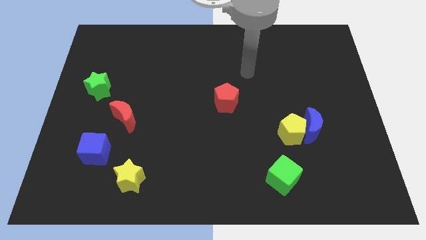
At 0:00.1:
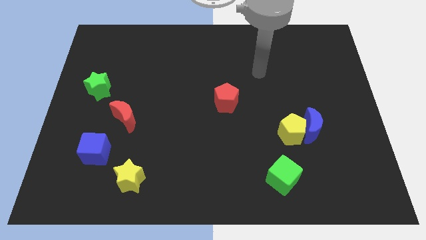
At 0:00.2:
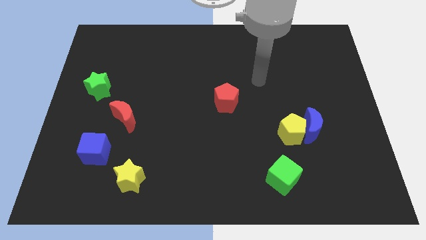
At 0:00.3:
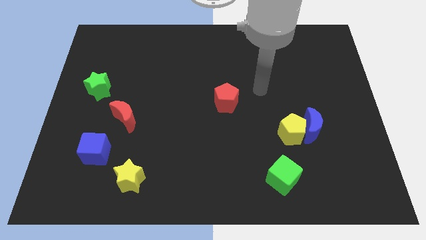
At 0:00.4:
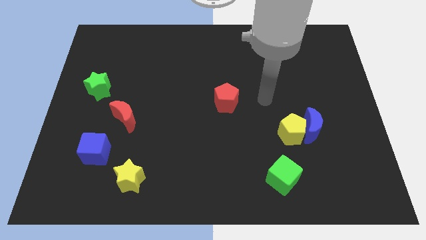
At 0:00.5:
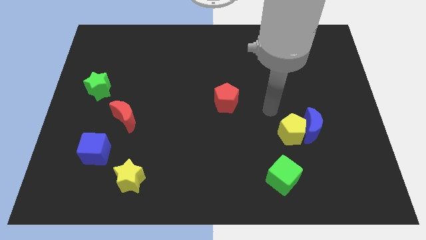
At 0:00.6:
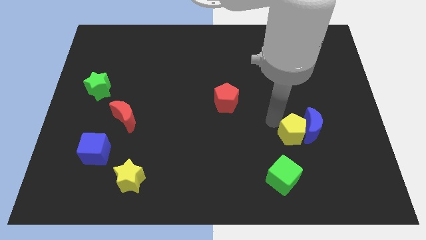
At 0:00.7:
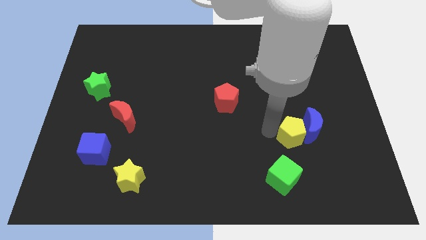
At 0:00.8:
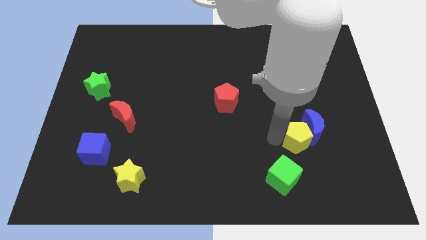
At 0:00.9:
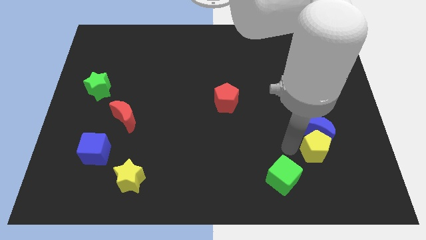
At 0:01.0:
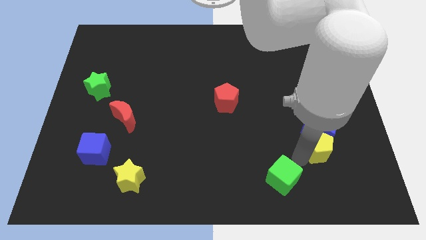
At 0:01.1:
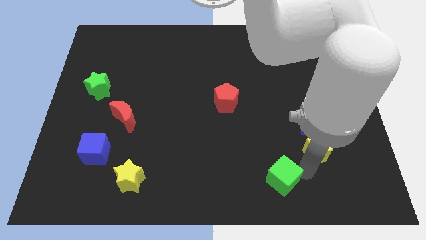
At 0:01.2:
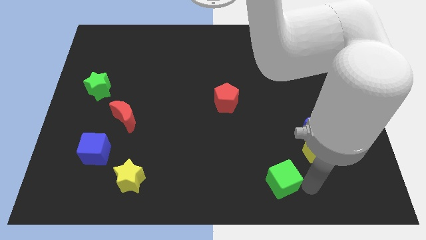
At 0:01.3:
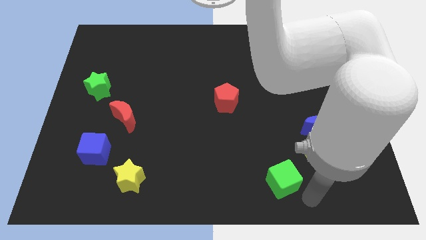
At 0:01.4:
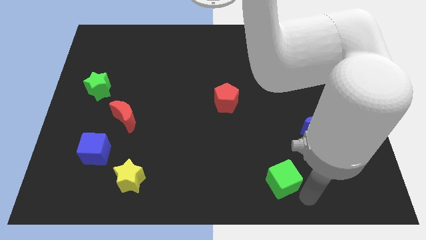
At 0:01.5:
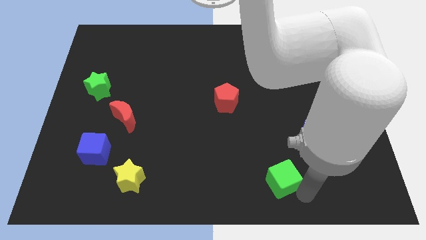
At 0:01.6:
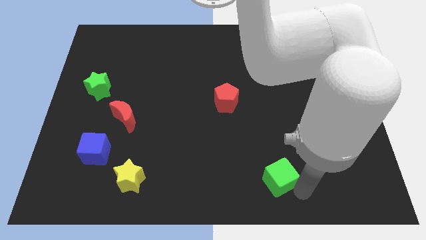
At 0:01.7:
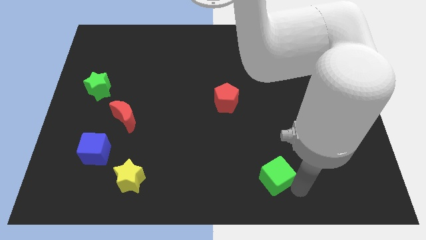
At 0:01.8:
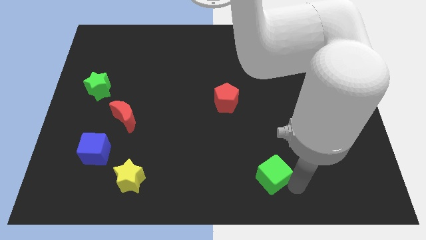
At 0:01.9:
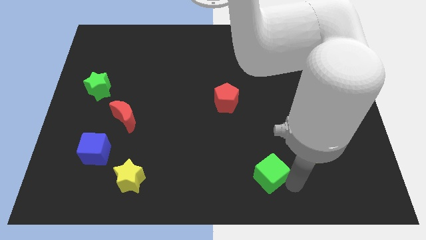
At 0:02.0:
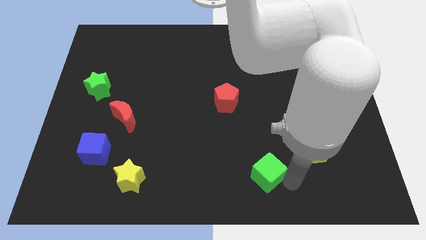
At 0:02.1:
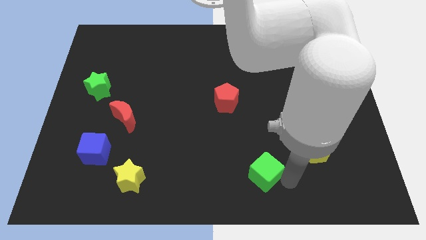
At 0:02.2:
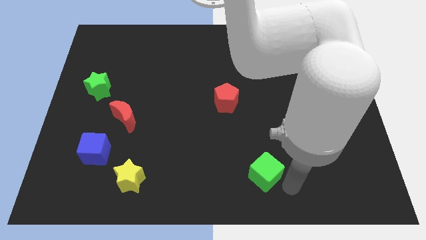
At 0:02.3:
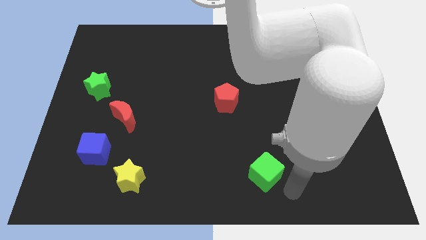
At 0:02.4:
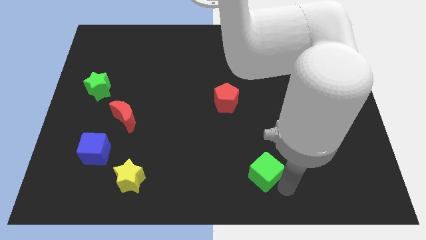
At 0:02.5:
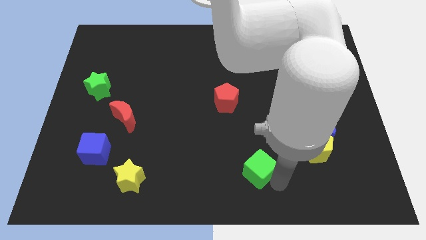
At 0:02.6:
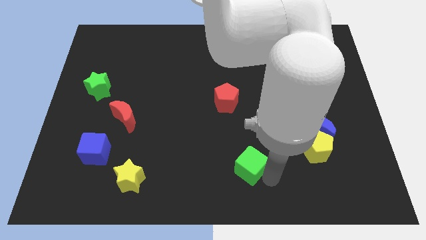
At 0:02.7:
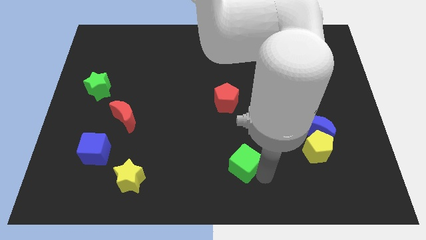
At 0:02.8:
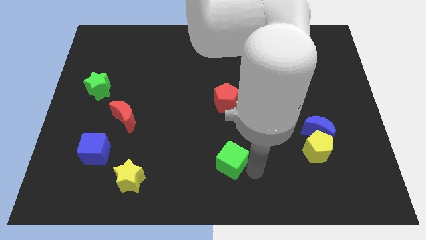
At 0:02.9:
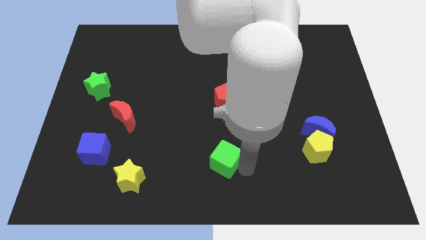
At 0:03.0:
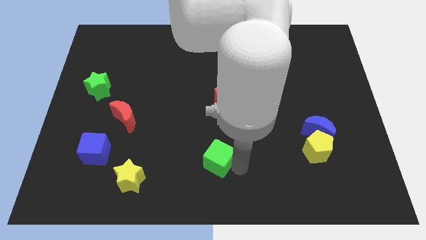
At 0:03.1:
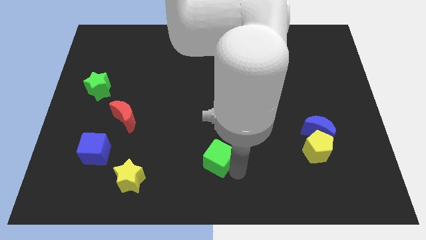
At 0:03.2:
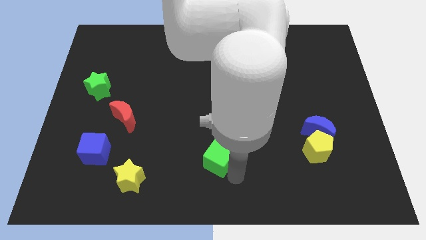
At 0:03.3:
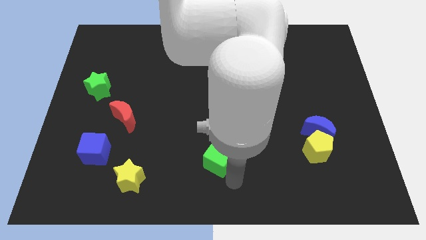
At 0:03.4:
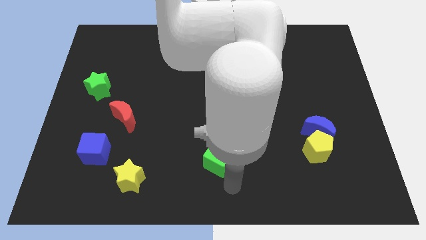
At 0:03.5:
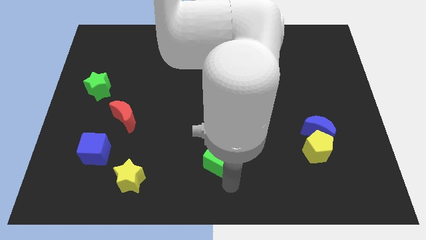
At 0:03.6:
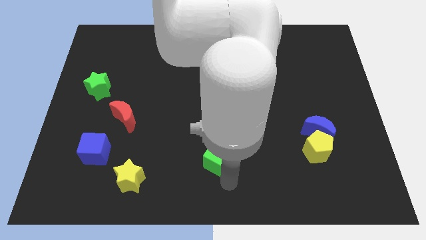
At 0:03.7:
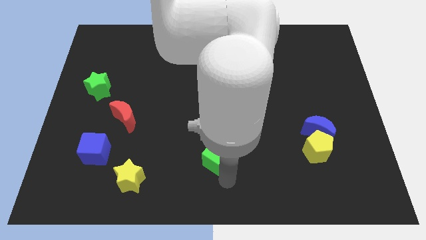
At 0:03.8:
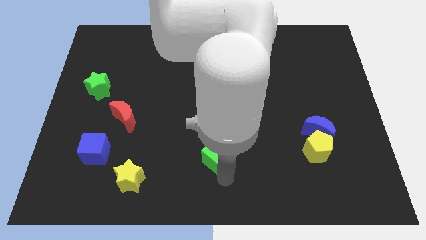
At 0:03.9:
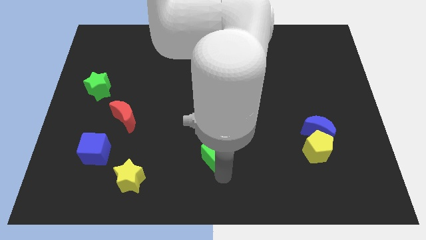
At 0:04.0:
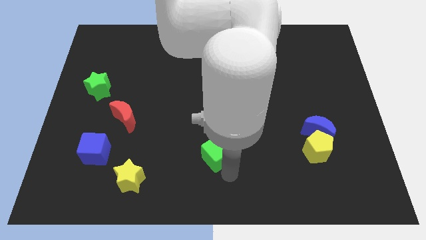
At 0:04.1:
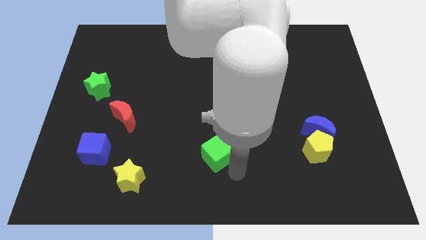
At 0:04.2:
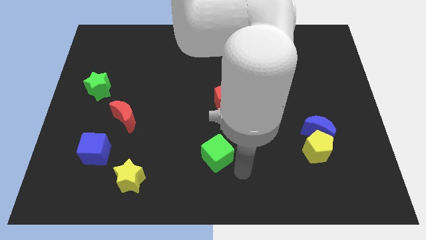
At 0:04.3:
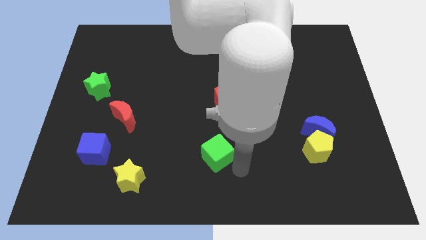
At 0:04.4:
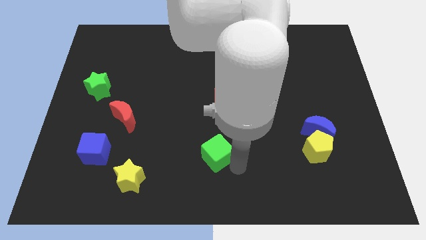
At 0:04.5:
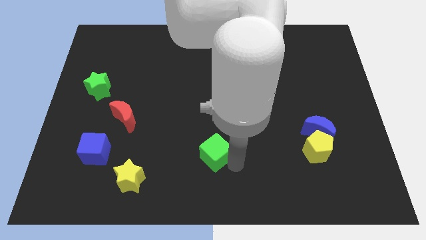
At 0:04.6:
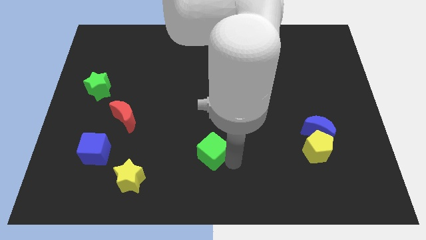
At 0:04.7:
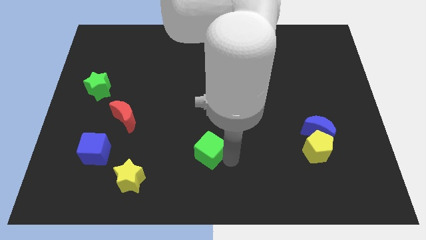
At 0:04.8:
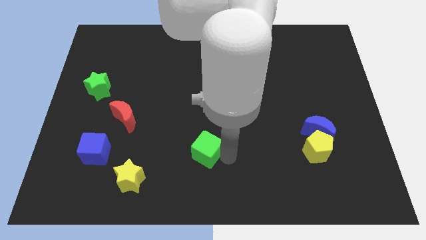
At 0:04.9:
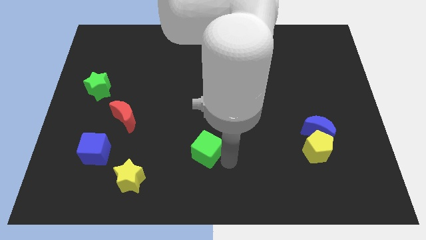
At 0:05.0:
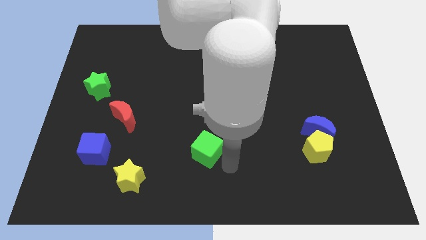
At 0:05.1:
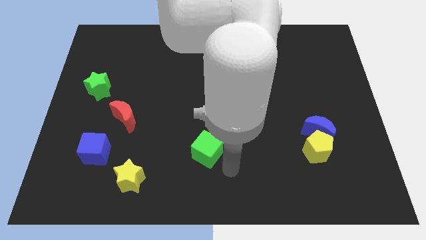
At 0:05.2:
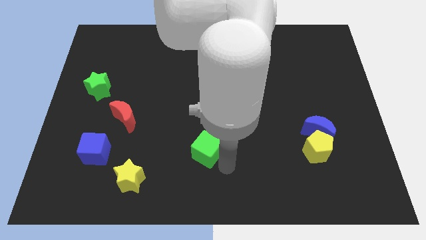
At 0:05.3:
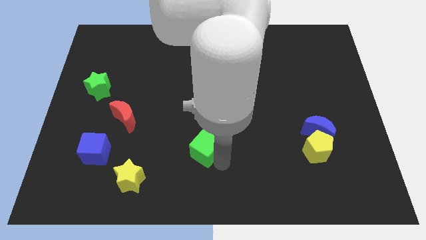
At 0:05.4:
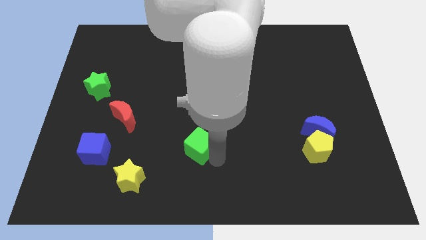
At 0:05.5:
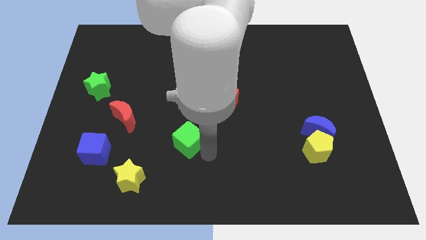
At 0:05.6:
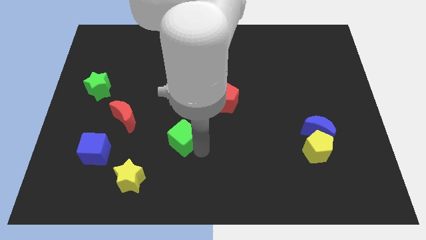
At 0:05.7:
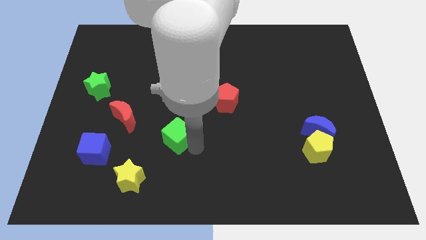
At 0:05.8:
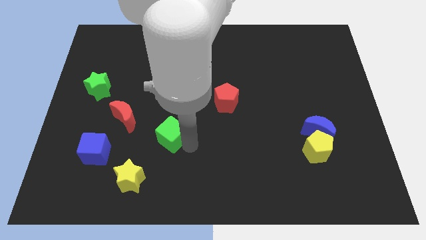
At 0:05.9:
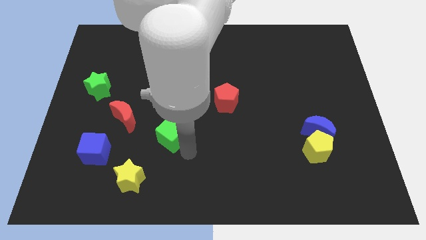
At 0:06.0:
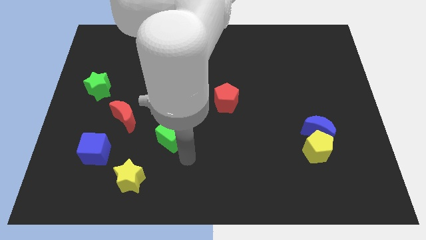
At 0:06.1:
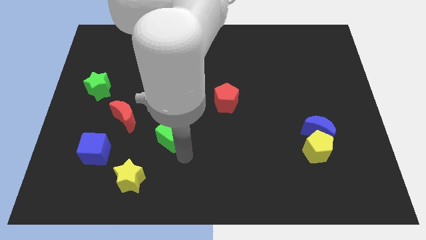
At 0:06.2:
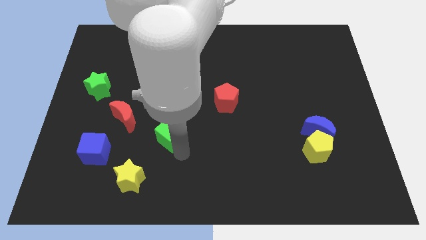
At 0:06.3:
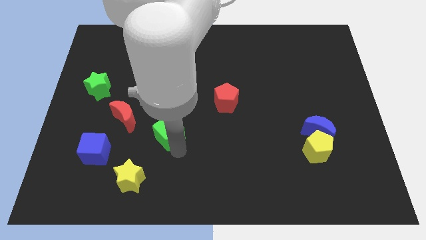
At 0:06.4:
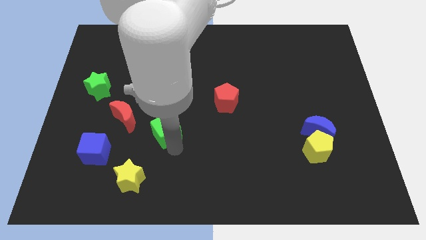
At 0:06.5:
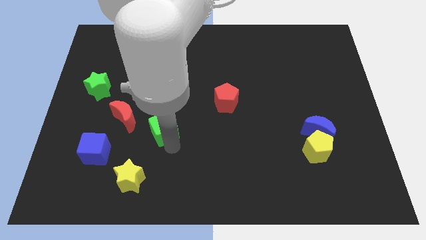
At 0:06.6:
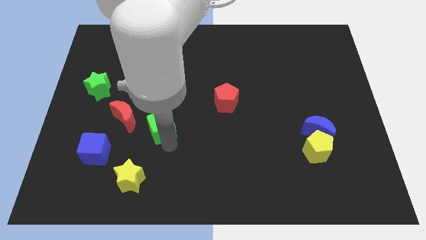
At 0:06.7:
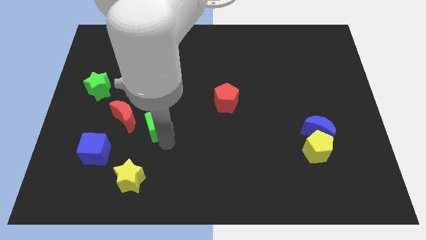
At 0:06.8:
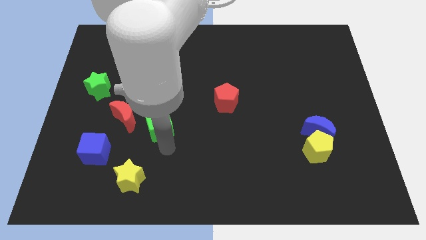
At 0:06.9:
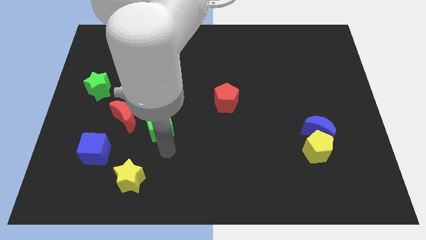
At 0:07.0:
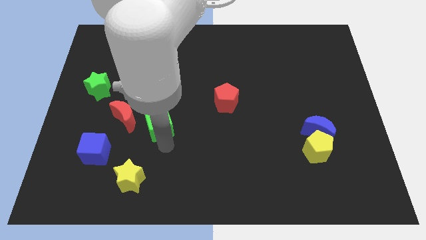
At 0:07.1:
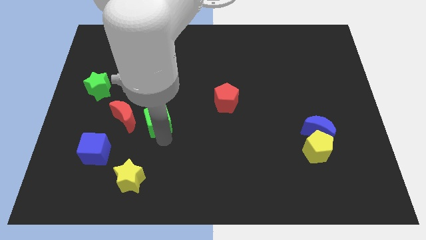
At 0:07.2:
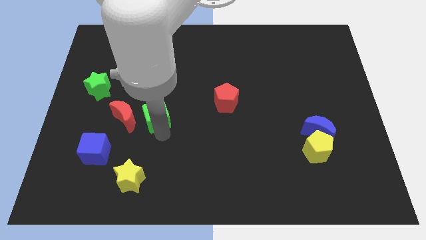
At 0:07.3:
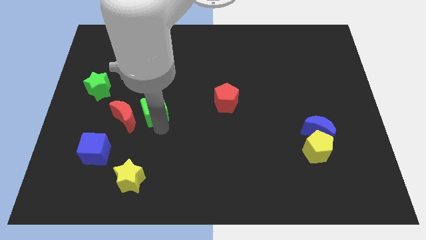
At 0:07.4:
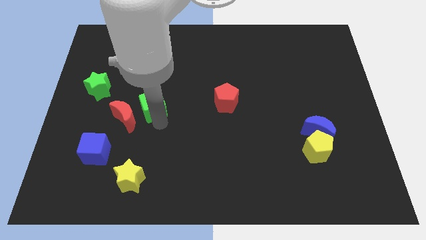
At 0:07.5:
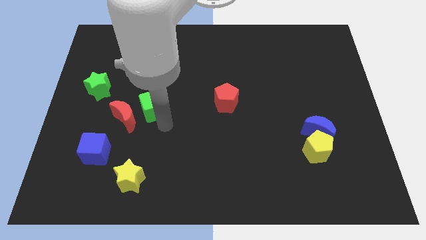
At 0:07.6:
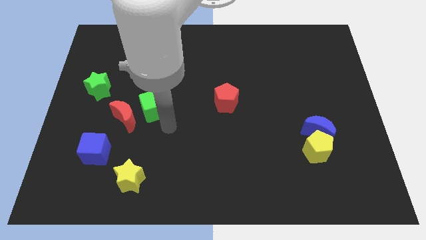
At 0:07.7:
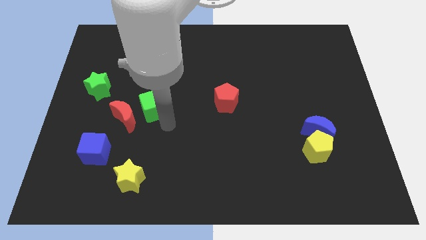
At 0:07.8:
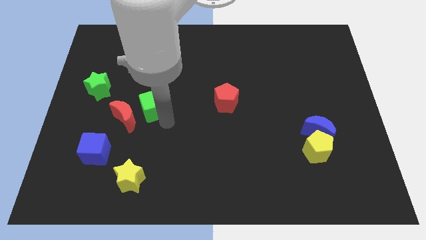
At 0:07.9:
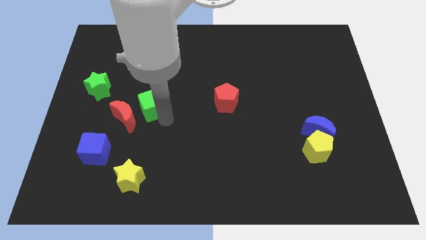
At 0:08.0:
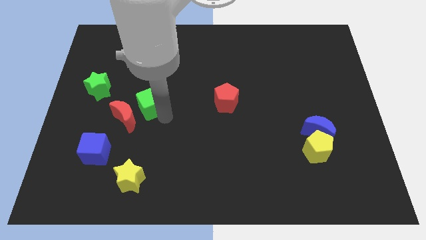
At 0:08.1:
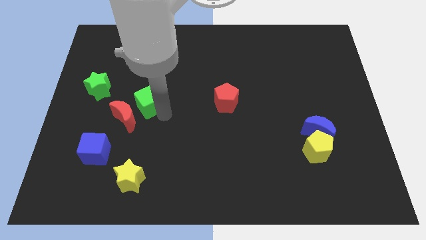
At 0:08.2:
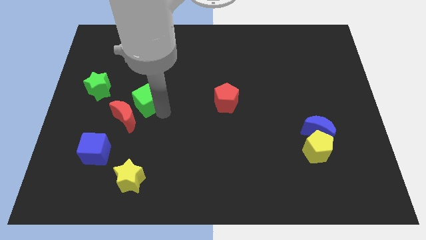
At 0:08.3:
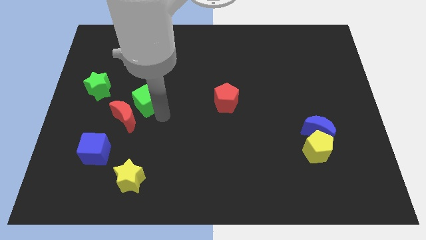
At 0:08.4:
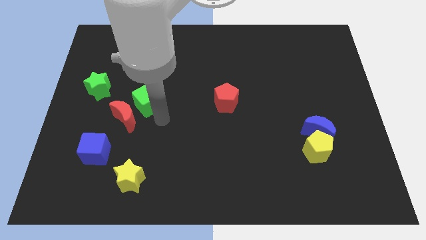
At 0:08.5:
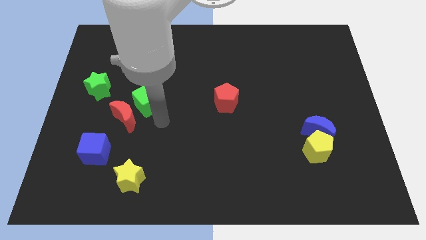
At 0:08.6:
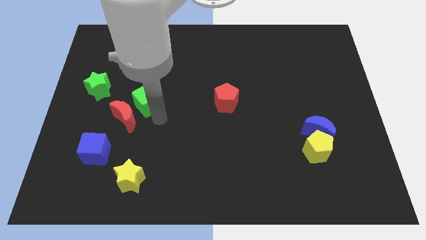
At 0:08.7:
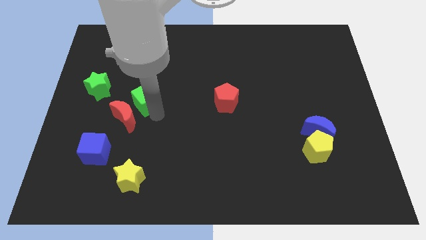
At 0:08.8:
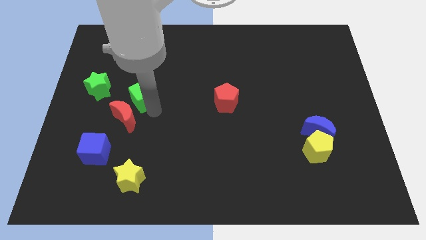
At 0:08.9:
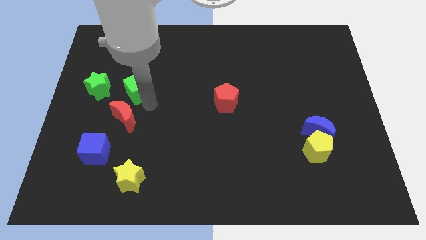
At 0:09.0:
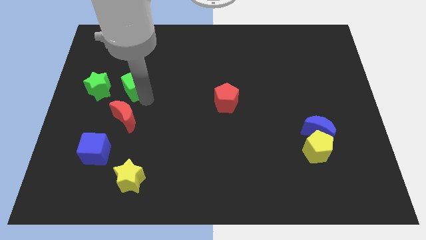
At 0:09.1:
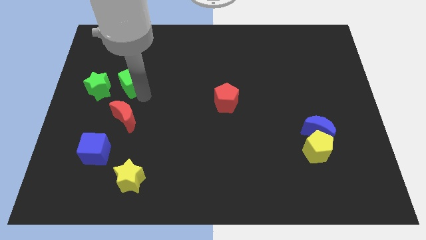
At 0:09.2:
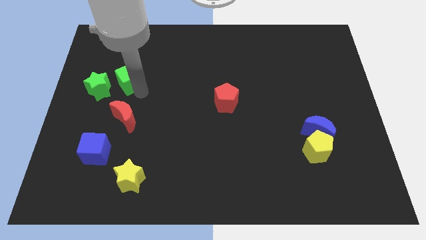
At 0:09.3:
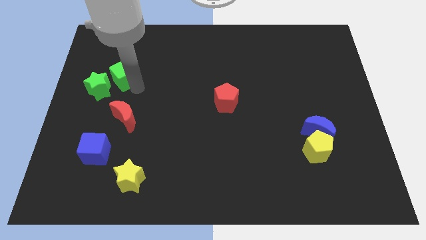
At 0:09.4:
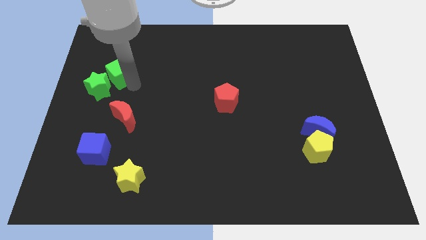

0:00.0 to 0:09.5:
put the green cube to the top of the green star
